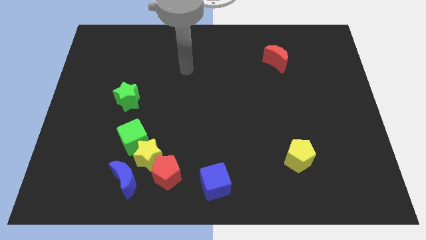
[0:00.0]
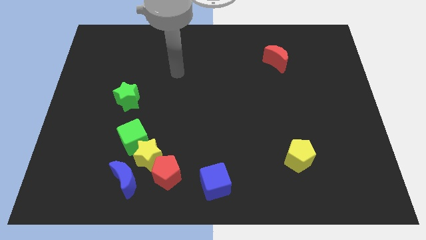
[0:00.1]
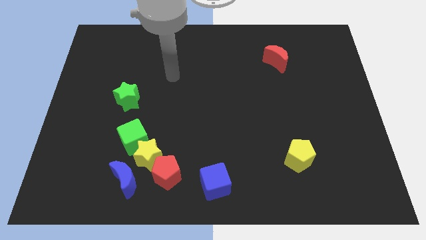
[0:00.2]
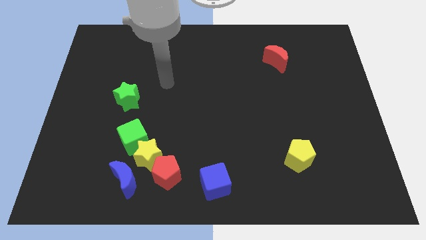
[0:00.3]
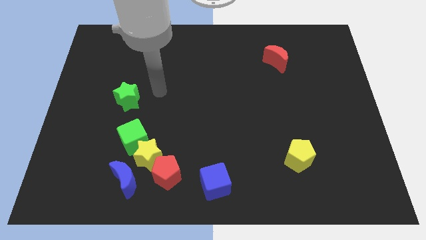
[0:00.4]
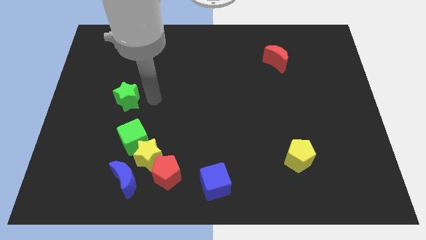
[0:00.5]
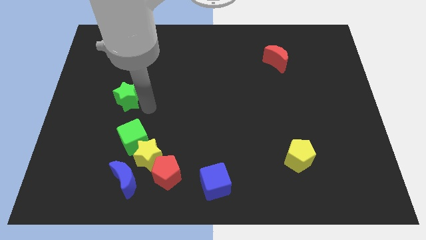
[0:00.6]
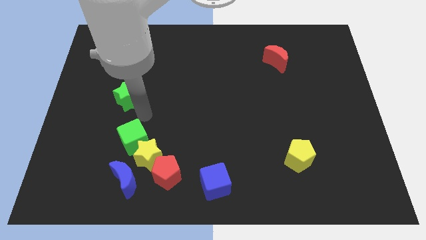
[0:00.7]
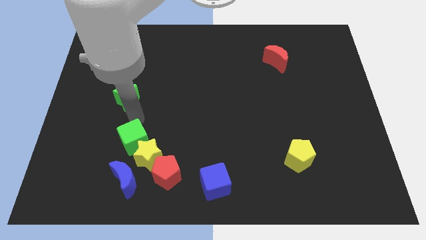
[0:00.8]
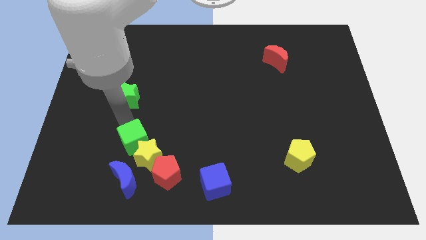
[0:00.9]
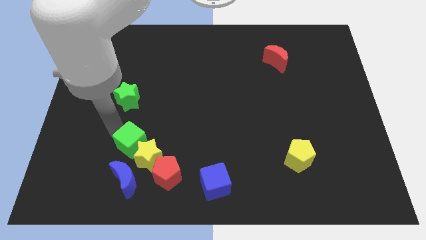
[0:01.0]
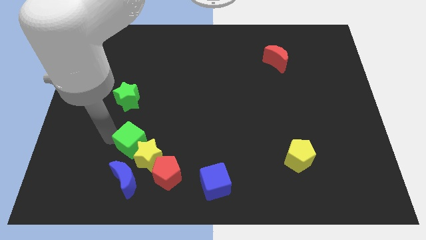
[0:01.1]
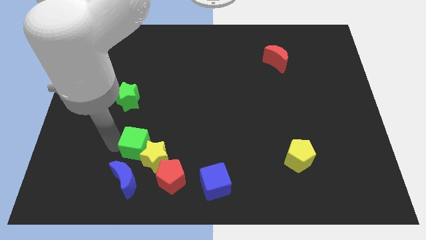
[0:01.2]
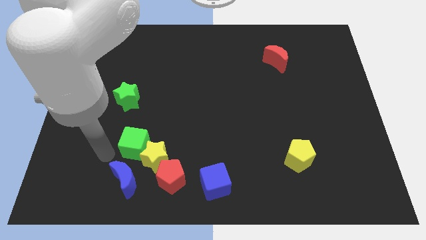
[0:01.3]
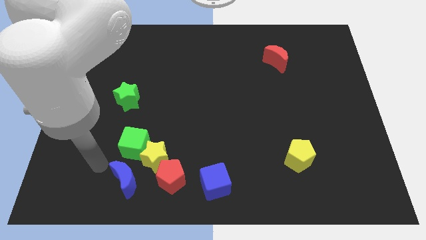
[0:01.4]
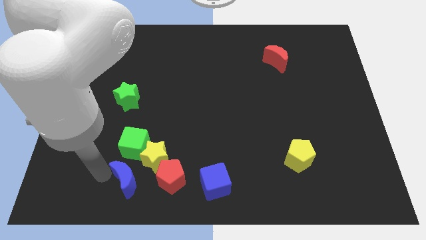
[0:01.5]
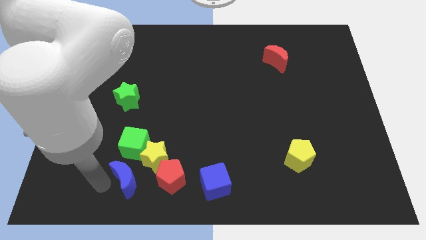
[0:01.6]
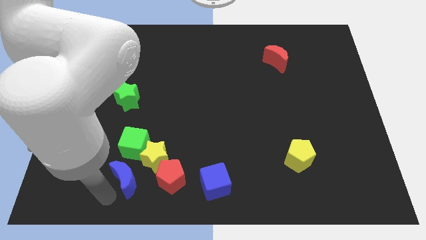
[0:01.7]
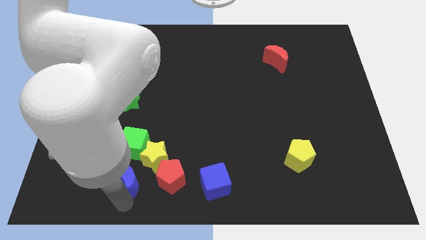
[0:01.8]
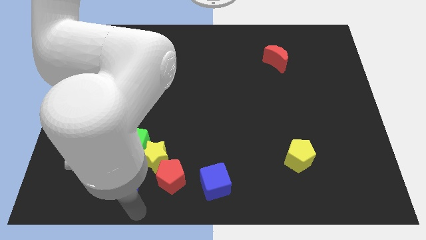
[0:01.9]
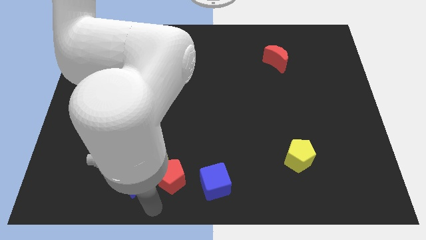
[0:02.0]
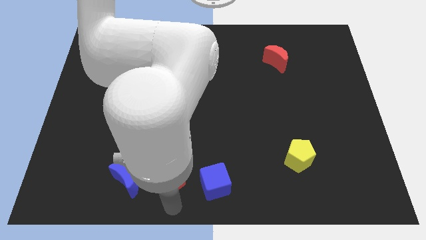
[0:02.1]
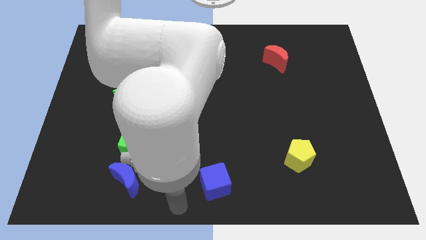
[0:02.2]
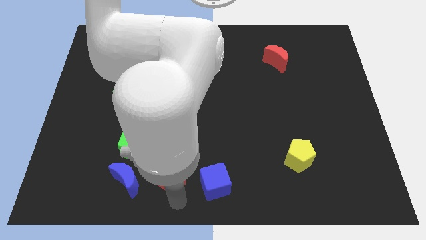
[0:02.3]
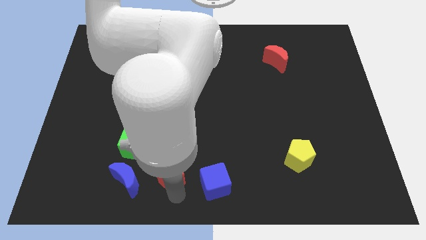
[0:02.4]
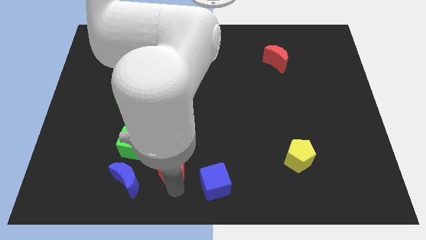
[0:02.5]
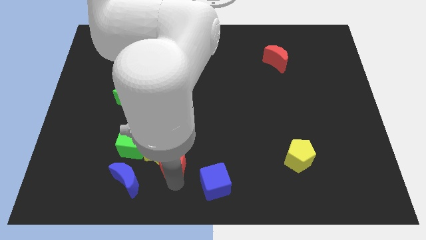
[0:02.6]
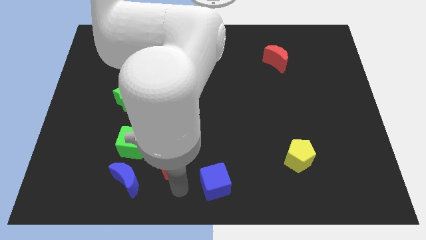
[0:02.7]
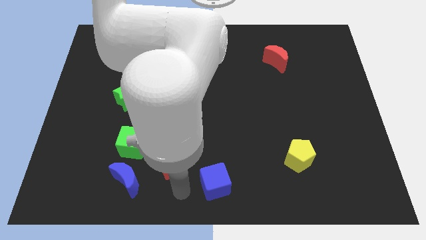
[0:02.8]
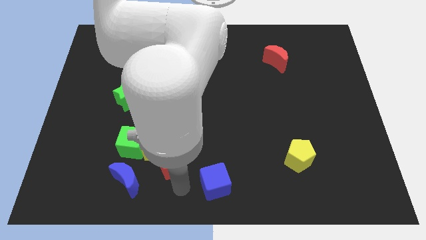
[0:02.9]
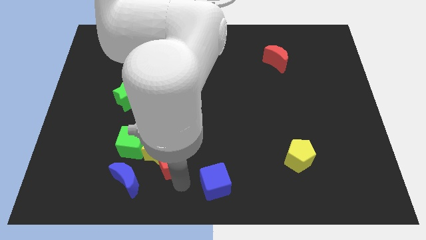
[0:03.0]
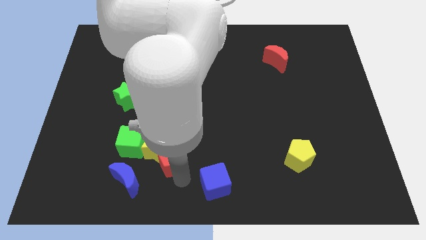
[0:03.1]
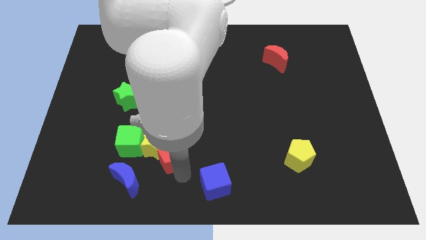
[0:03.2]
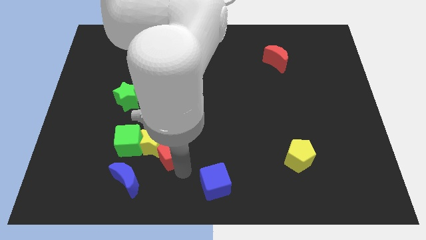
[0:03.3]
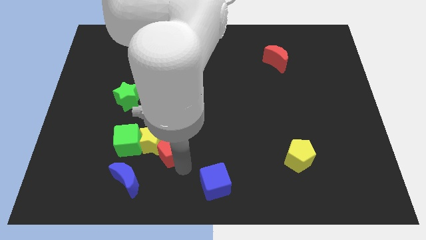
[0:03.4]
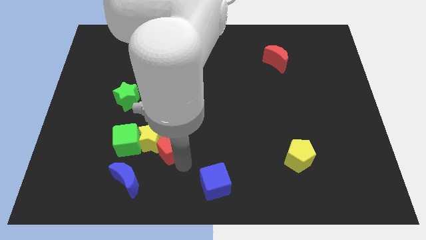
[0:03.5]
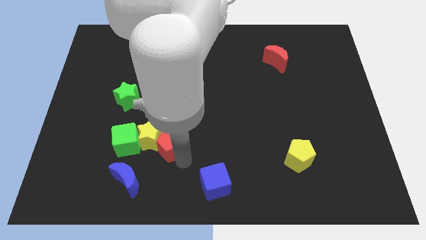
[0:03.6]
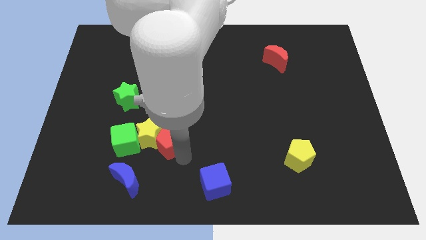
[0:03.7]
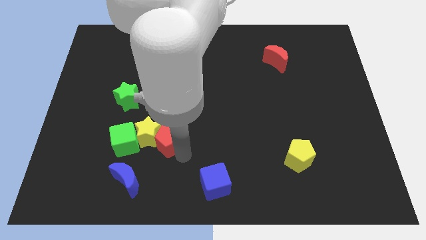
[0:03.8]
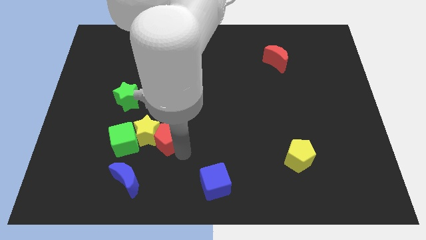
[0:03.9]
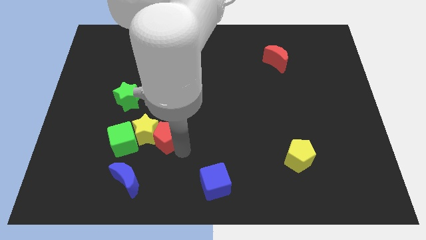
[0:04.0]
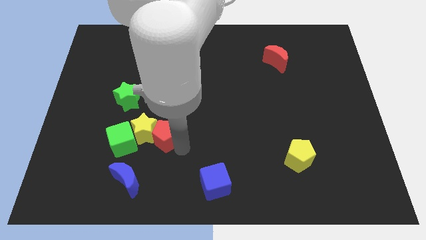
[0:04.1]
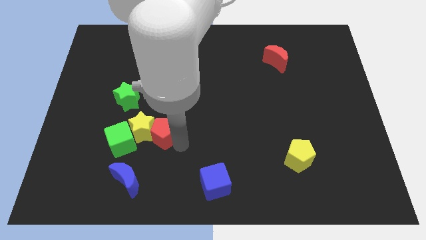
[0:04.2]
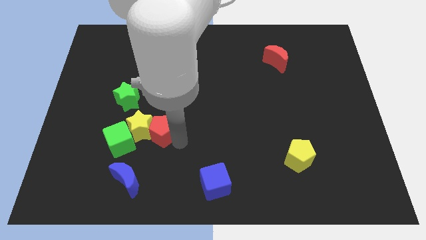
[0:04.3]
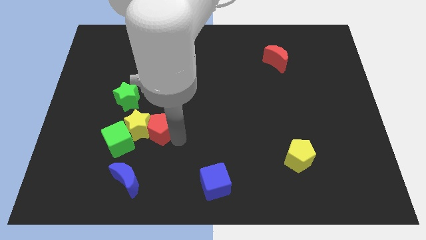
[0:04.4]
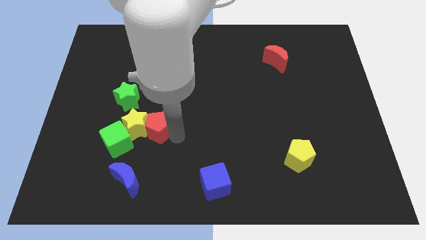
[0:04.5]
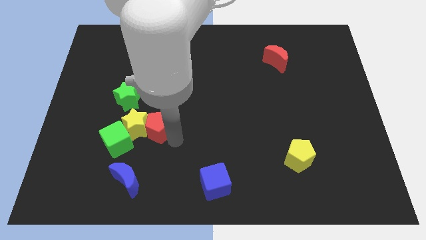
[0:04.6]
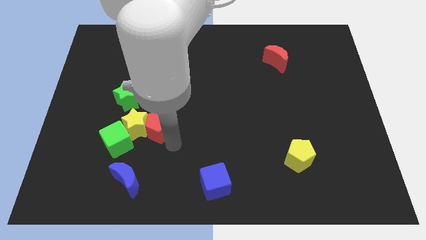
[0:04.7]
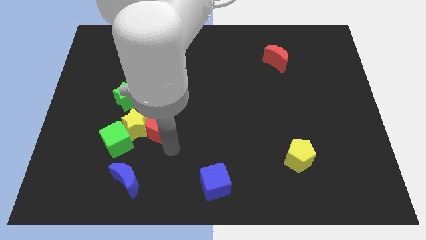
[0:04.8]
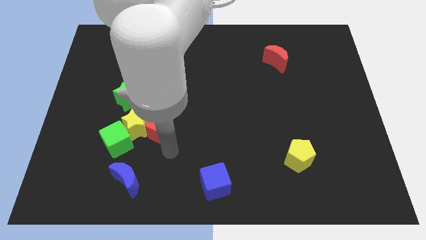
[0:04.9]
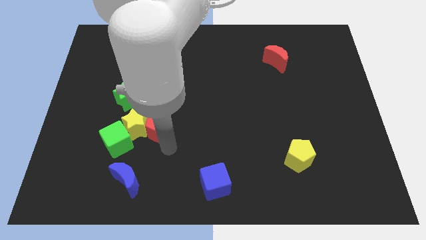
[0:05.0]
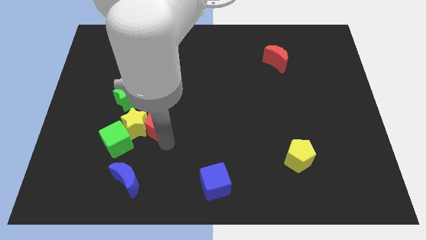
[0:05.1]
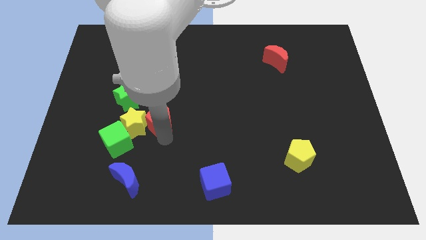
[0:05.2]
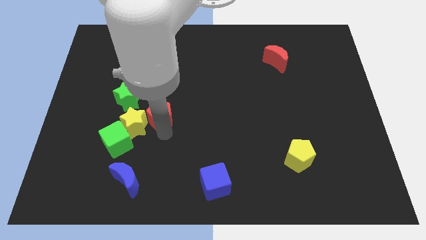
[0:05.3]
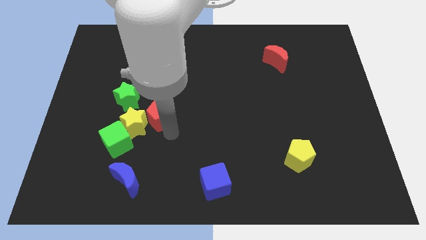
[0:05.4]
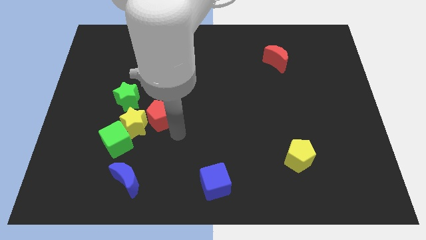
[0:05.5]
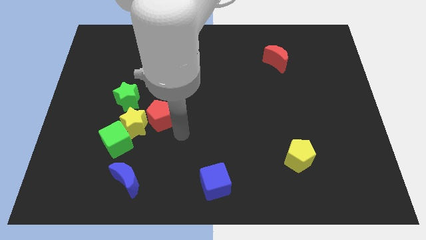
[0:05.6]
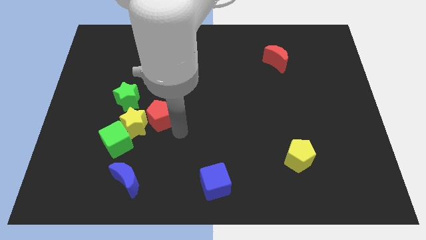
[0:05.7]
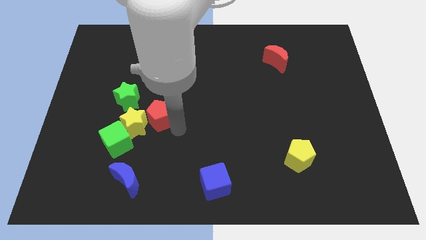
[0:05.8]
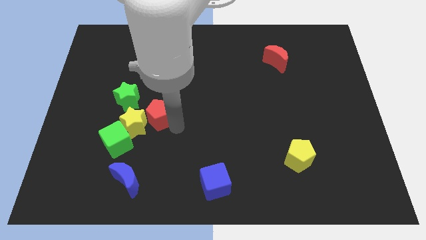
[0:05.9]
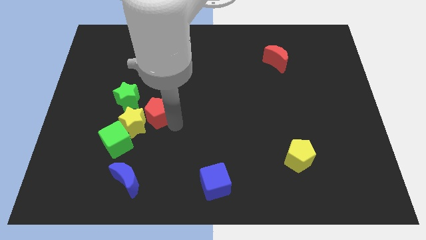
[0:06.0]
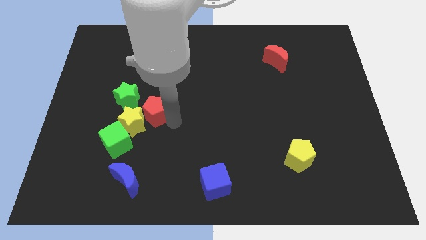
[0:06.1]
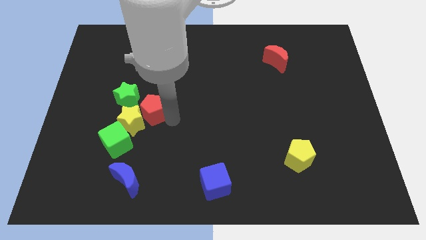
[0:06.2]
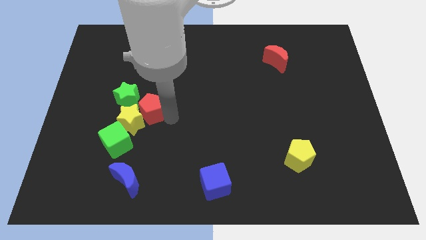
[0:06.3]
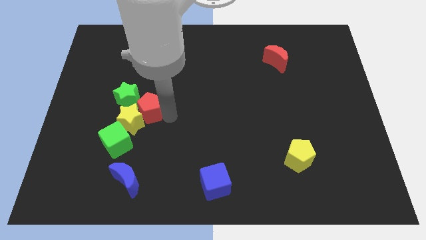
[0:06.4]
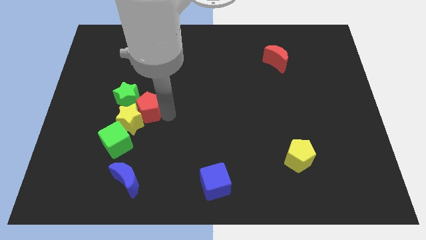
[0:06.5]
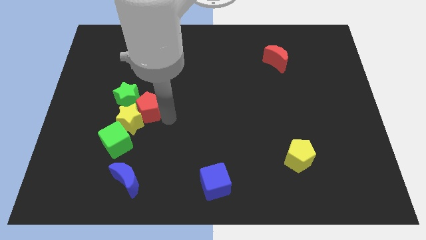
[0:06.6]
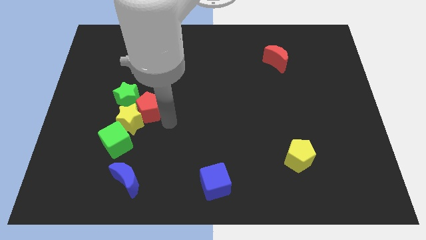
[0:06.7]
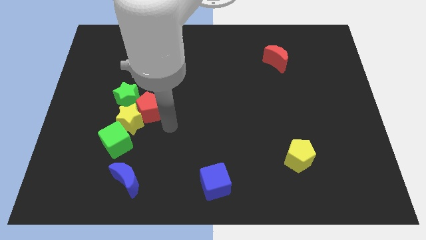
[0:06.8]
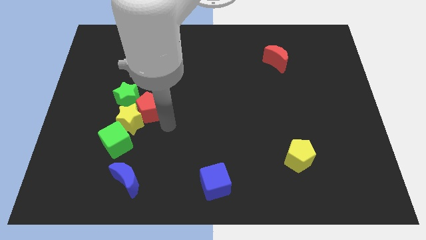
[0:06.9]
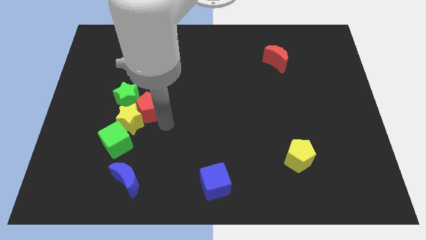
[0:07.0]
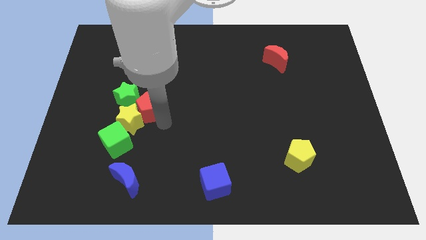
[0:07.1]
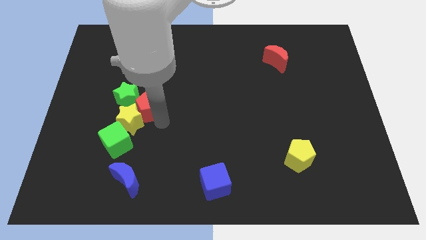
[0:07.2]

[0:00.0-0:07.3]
slide the red pentagon to the green star

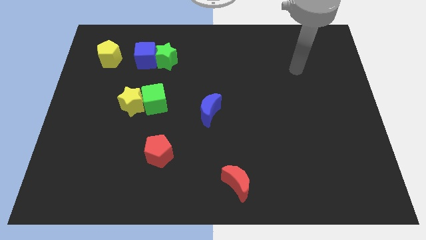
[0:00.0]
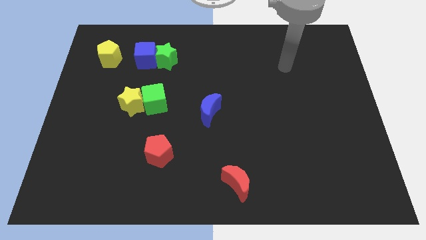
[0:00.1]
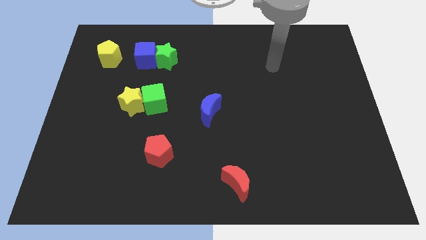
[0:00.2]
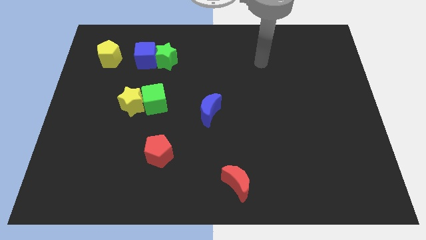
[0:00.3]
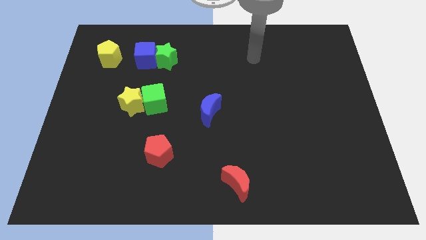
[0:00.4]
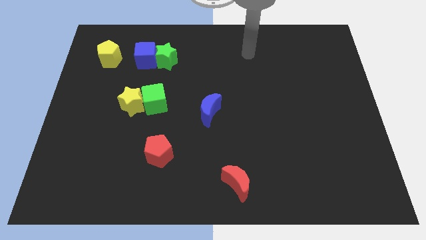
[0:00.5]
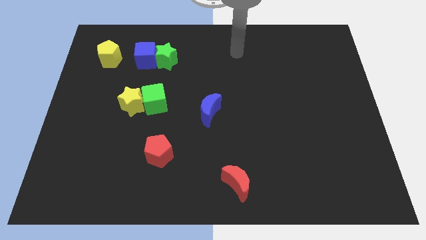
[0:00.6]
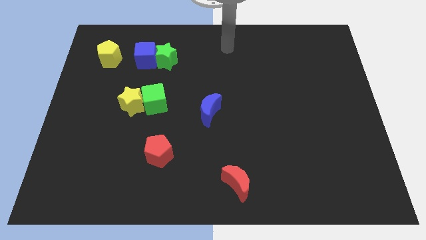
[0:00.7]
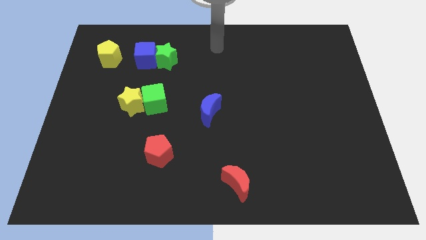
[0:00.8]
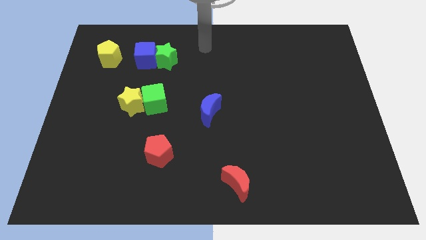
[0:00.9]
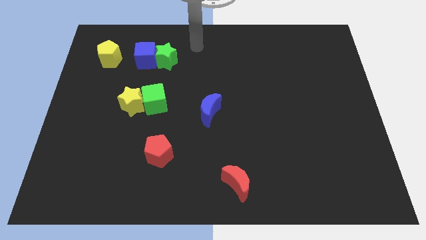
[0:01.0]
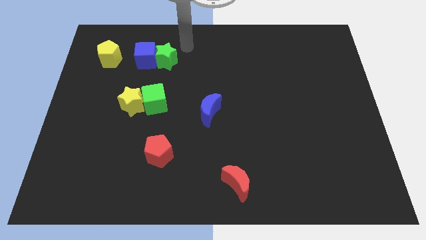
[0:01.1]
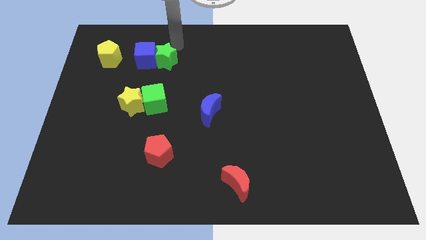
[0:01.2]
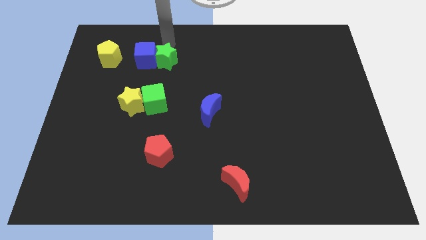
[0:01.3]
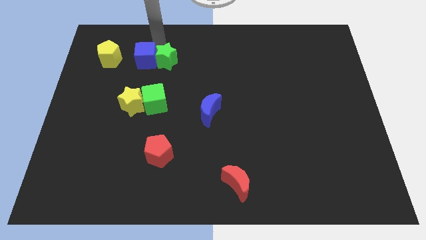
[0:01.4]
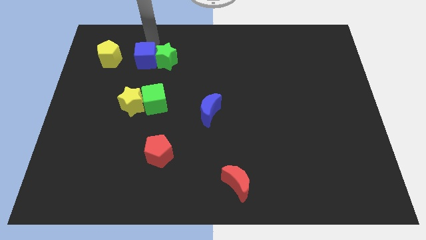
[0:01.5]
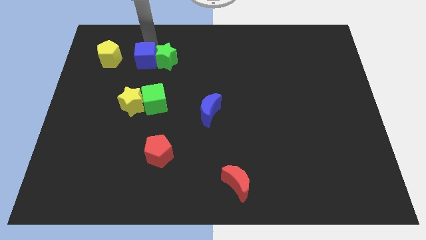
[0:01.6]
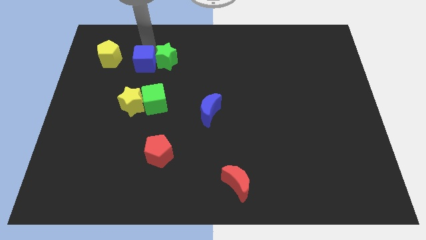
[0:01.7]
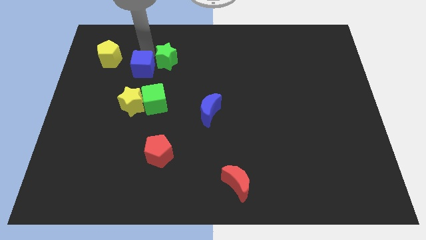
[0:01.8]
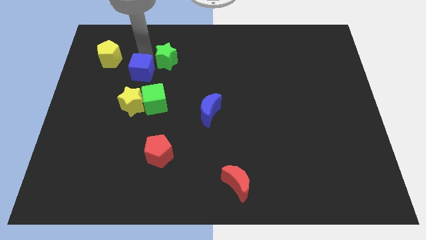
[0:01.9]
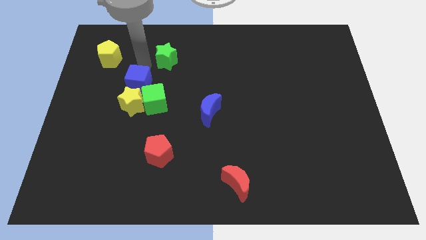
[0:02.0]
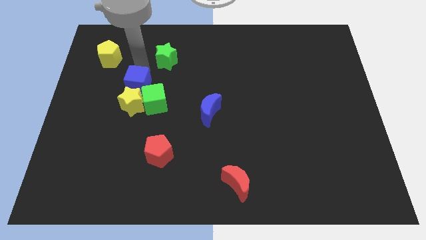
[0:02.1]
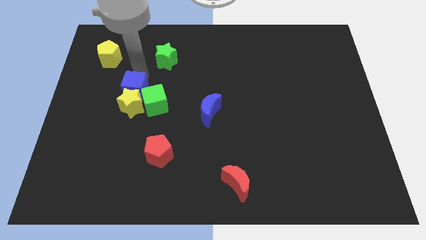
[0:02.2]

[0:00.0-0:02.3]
put the blue cube next to the yellow star
